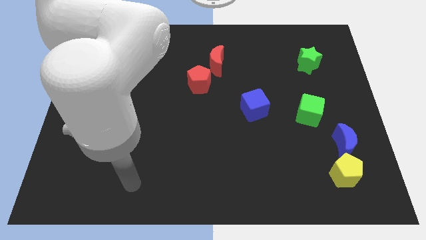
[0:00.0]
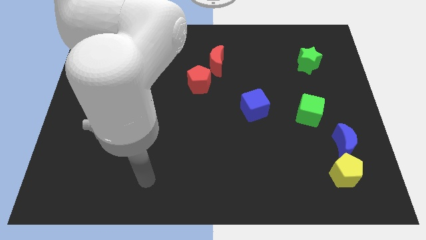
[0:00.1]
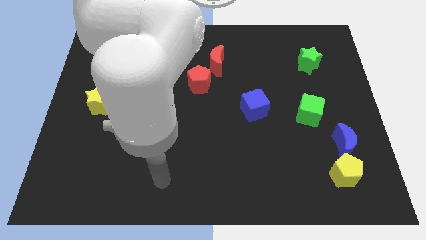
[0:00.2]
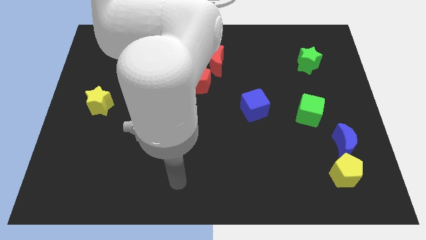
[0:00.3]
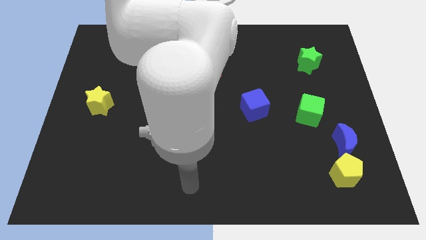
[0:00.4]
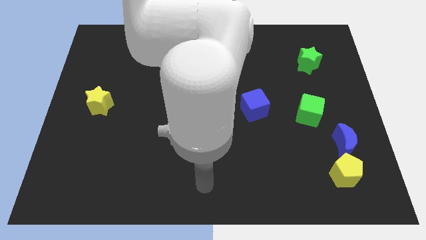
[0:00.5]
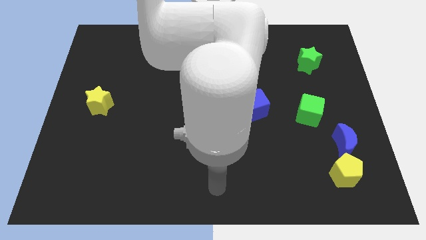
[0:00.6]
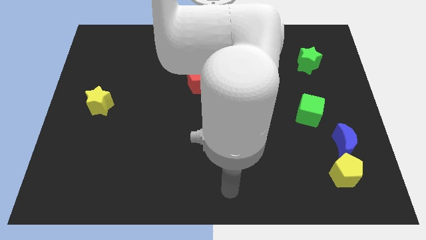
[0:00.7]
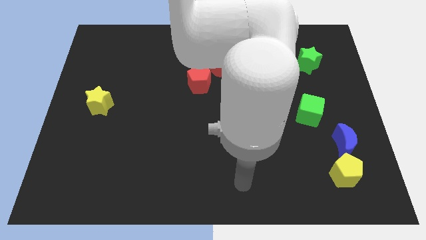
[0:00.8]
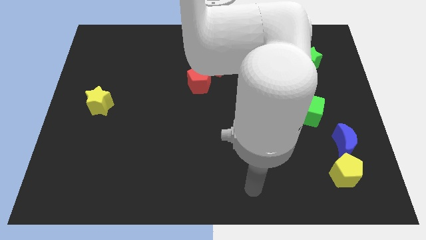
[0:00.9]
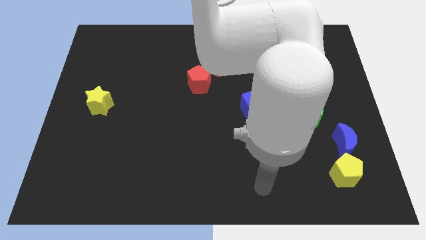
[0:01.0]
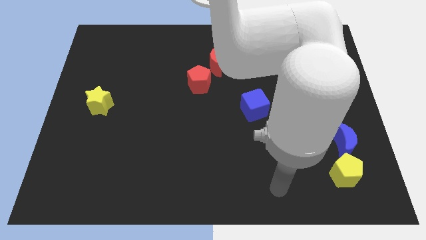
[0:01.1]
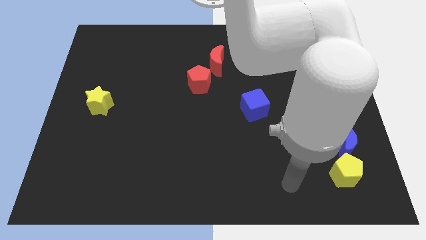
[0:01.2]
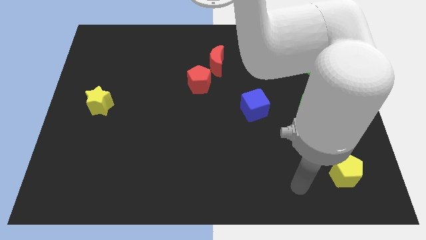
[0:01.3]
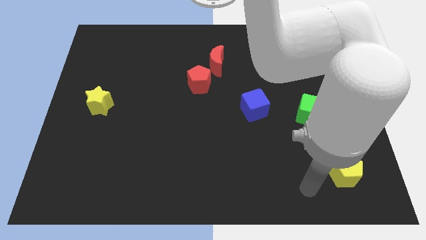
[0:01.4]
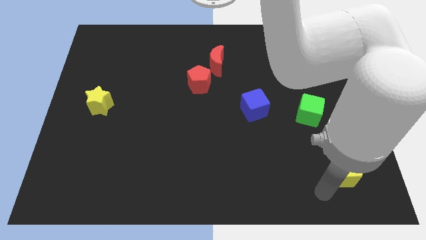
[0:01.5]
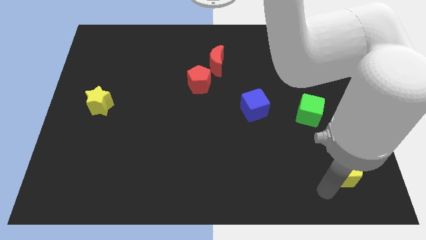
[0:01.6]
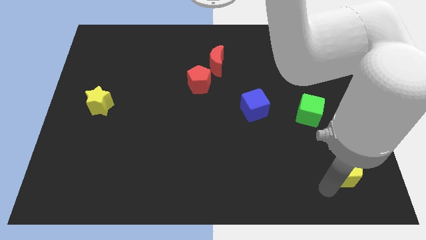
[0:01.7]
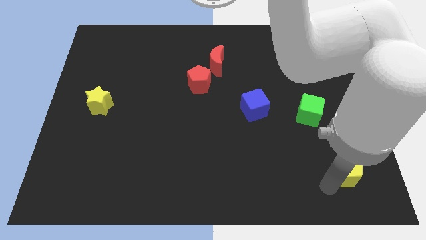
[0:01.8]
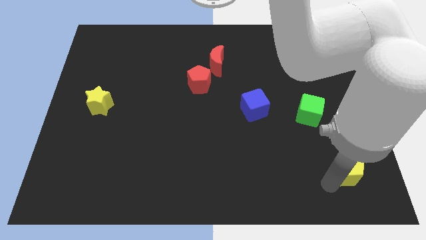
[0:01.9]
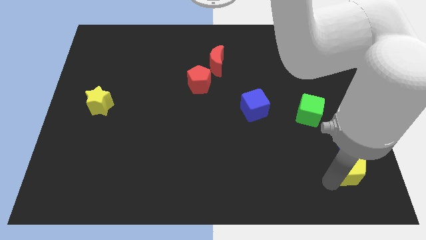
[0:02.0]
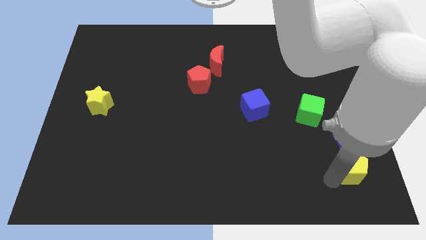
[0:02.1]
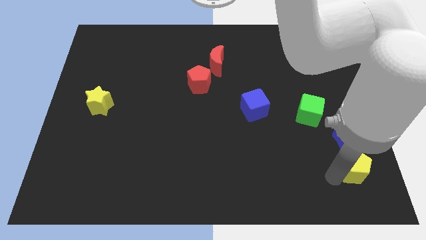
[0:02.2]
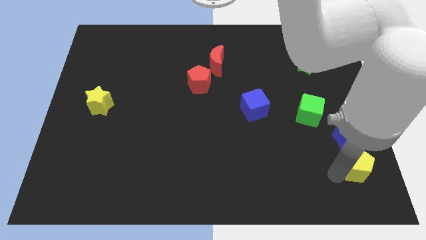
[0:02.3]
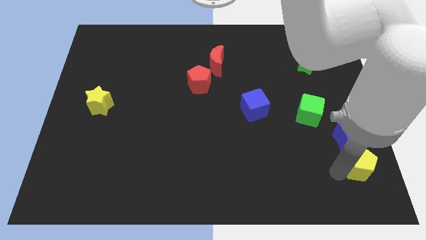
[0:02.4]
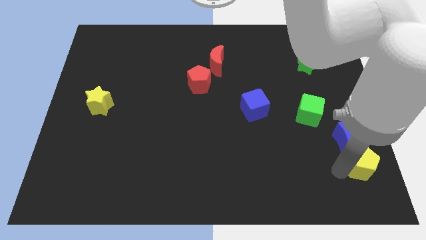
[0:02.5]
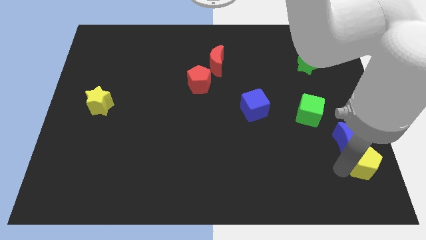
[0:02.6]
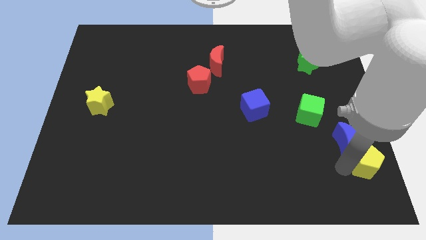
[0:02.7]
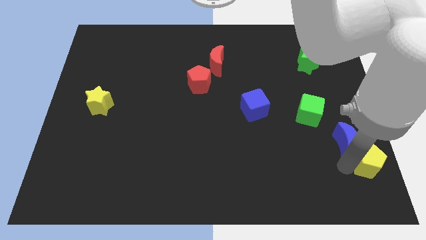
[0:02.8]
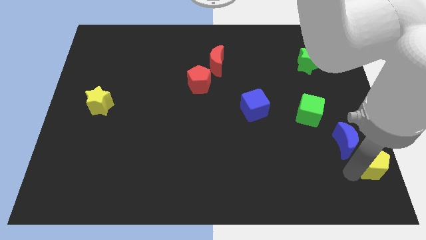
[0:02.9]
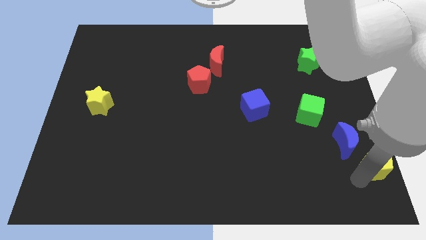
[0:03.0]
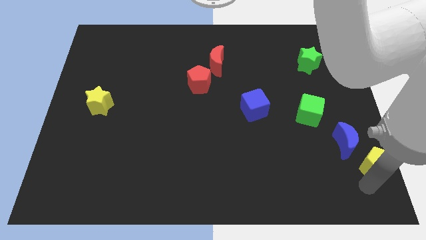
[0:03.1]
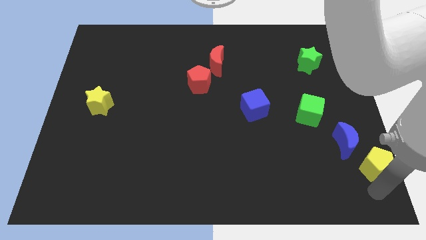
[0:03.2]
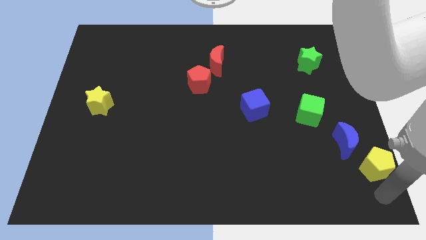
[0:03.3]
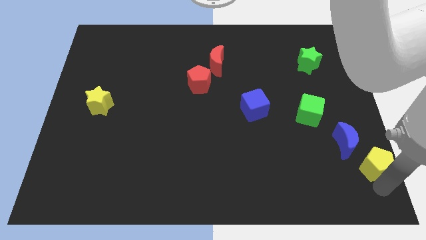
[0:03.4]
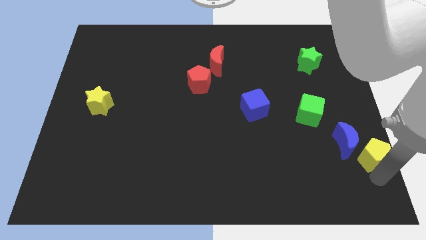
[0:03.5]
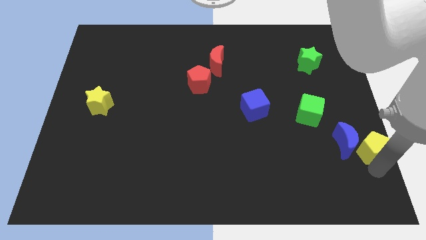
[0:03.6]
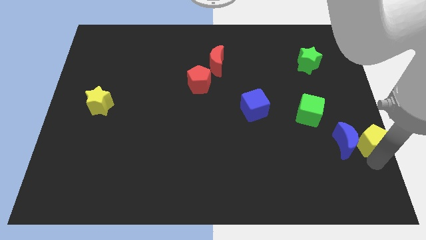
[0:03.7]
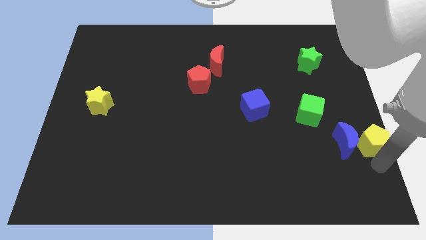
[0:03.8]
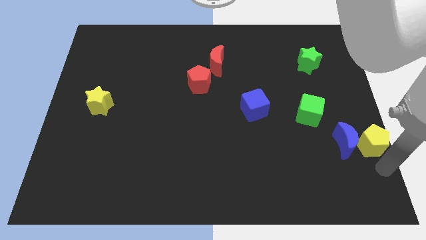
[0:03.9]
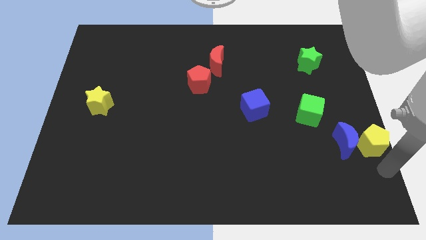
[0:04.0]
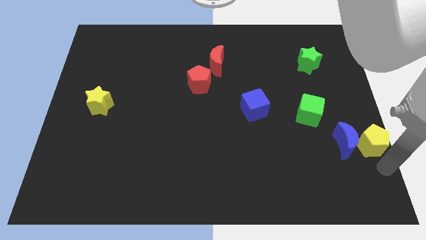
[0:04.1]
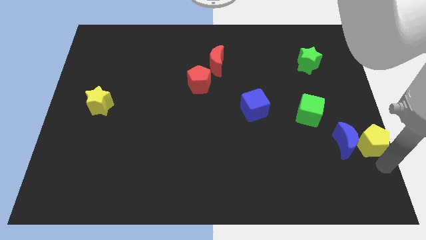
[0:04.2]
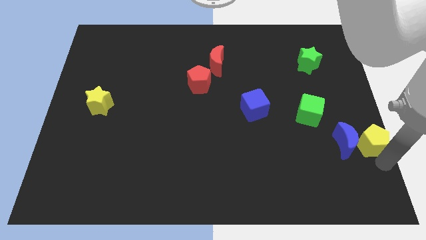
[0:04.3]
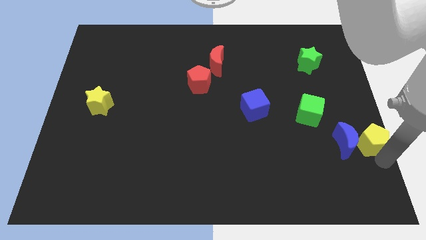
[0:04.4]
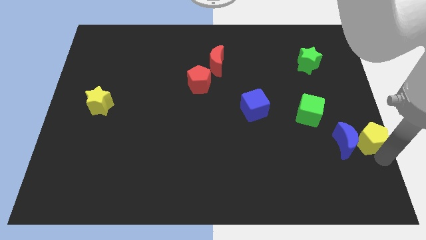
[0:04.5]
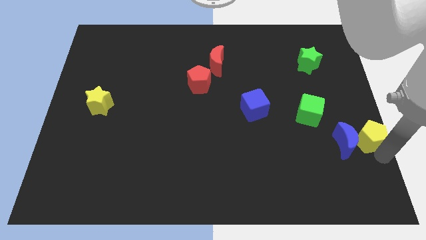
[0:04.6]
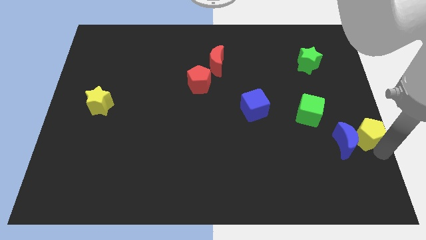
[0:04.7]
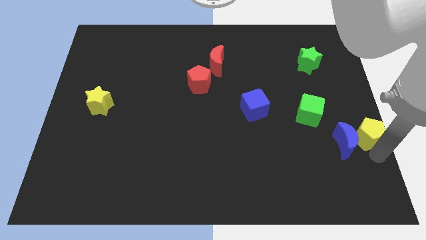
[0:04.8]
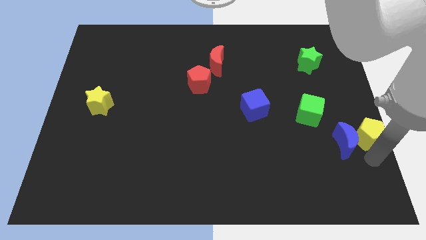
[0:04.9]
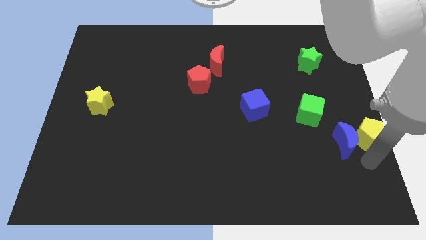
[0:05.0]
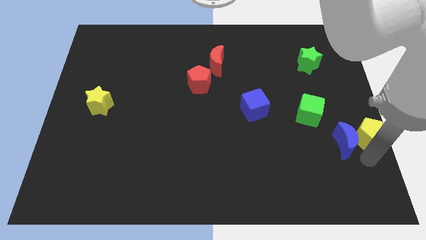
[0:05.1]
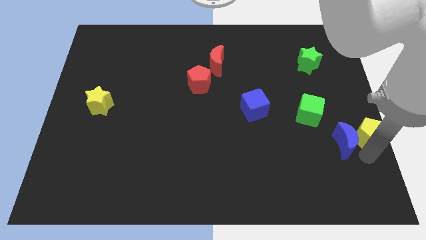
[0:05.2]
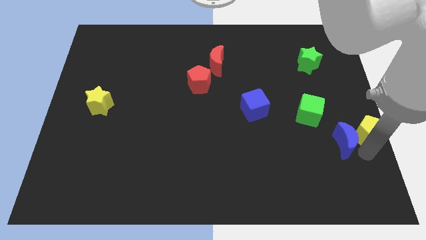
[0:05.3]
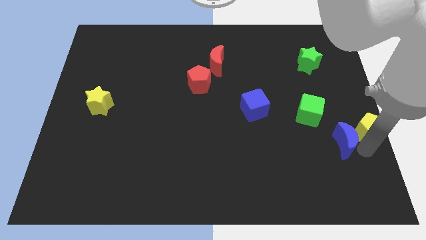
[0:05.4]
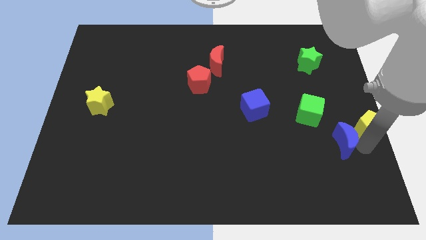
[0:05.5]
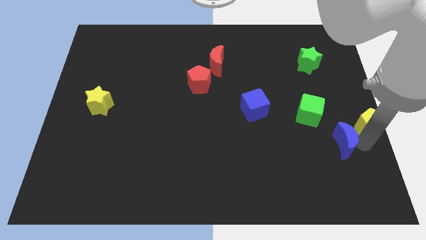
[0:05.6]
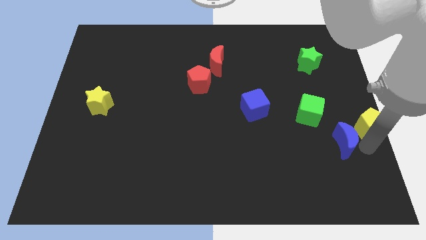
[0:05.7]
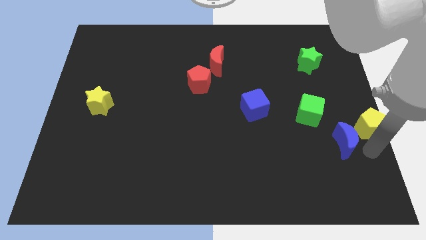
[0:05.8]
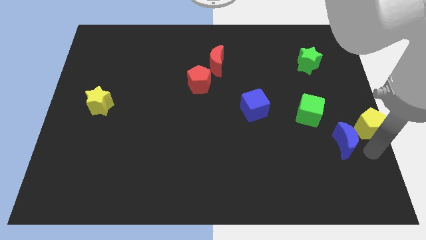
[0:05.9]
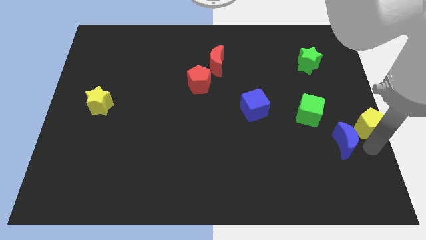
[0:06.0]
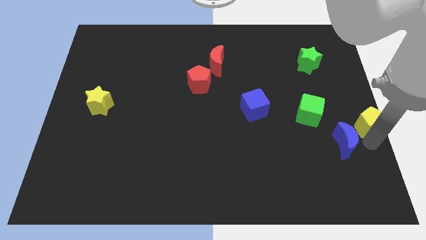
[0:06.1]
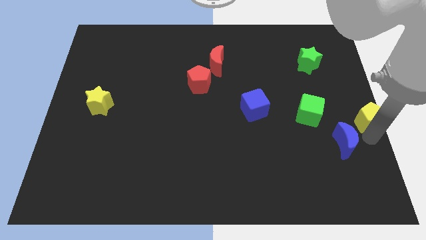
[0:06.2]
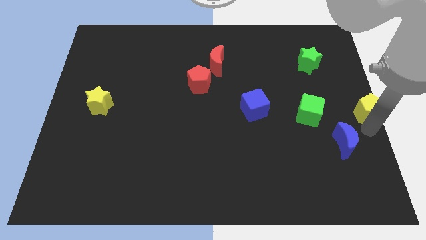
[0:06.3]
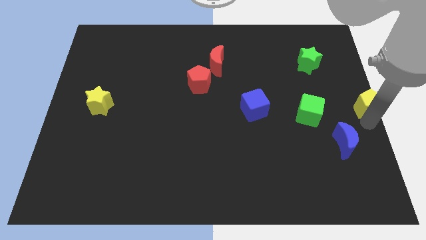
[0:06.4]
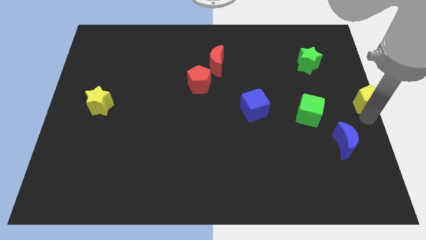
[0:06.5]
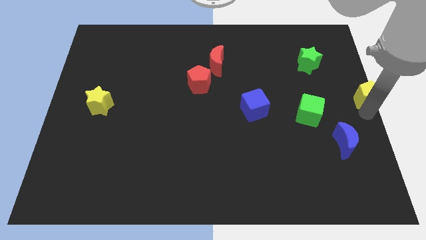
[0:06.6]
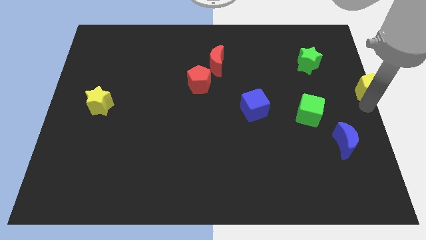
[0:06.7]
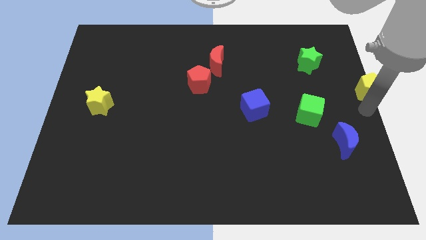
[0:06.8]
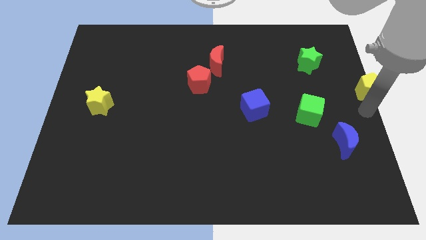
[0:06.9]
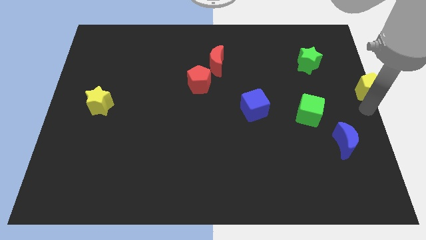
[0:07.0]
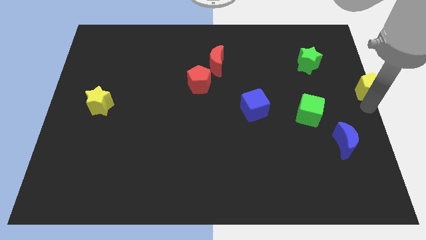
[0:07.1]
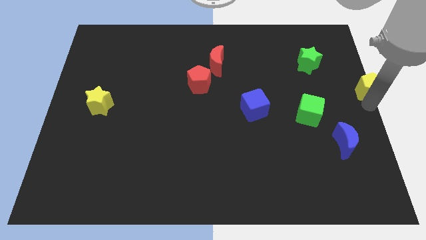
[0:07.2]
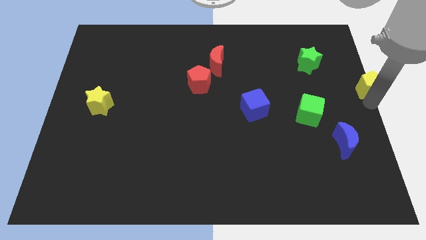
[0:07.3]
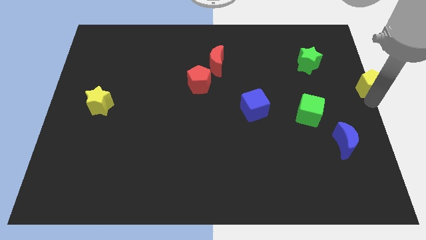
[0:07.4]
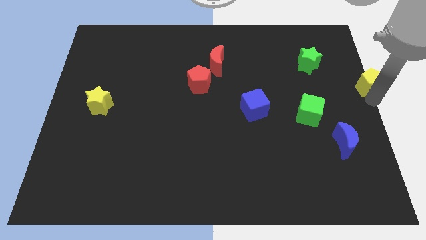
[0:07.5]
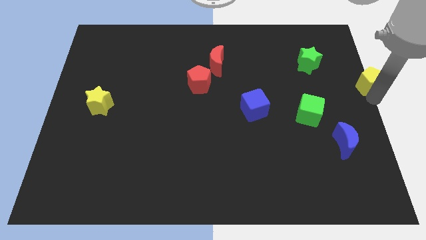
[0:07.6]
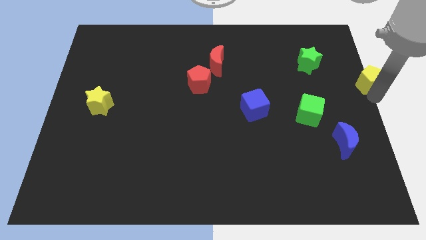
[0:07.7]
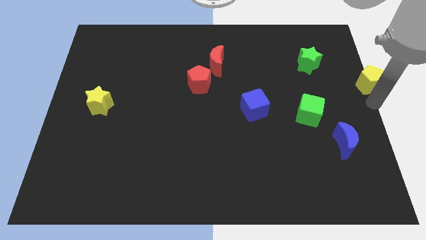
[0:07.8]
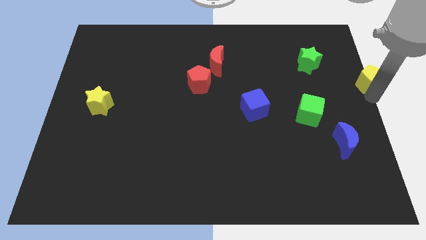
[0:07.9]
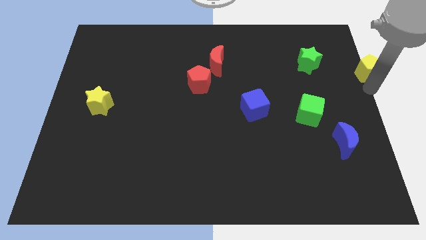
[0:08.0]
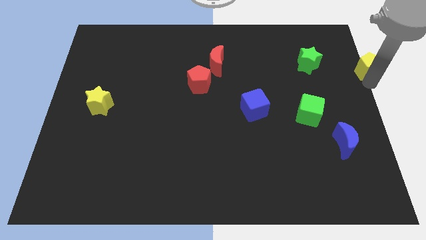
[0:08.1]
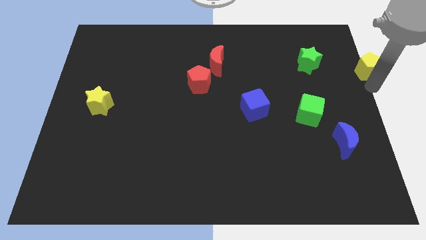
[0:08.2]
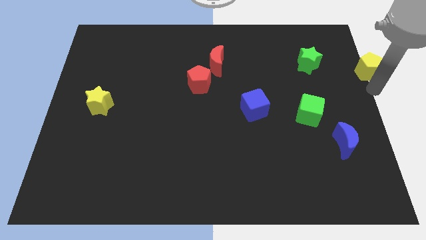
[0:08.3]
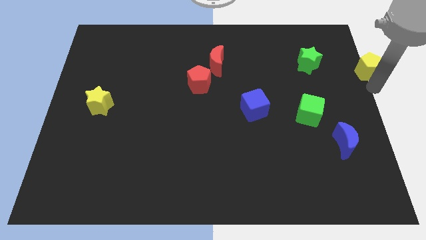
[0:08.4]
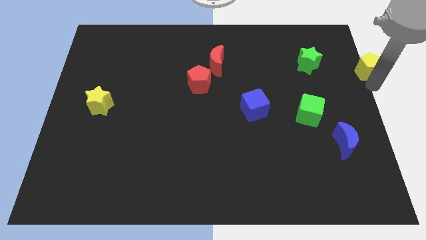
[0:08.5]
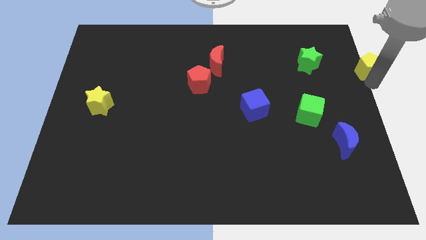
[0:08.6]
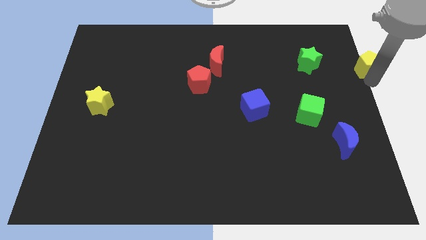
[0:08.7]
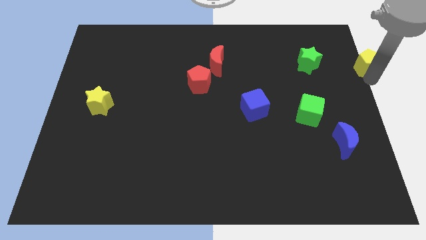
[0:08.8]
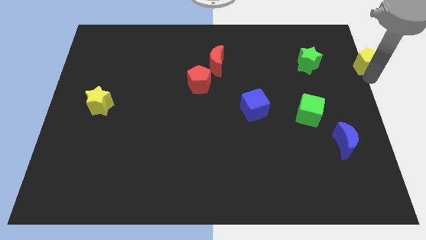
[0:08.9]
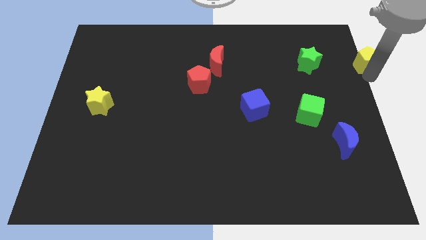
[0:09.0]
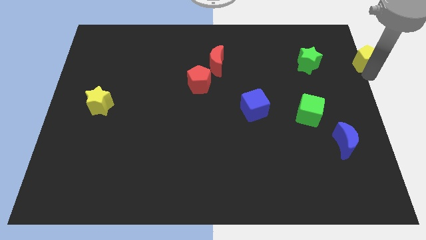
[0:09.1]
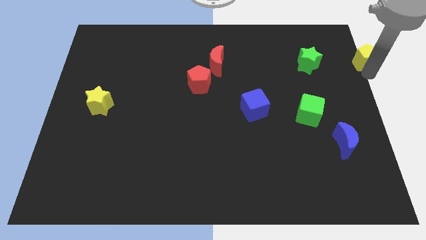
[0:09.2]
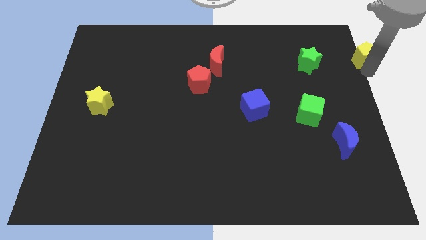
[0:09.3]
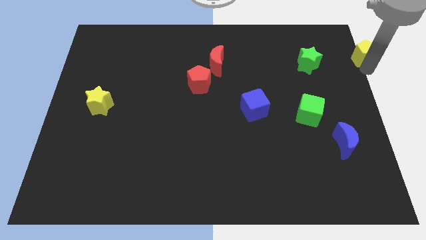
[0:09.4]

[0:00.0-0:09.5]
move the yellow pentagon to the top right corner
